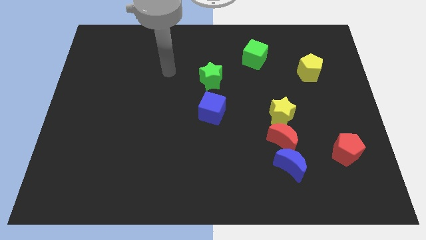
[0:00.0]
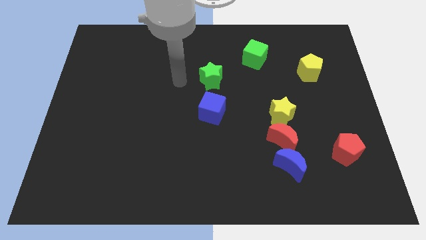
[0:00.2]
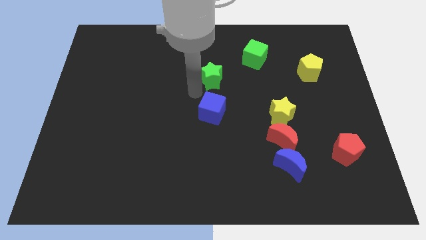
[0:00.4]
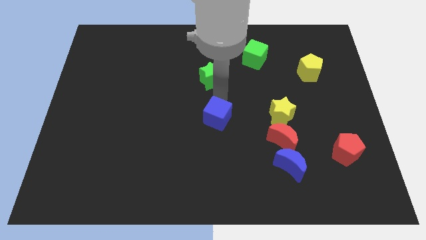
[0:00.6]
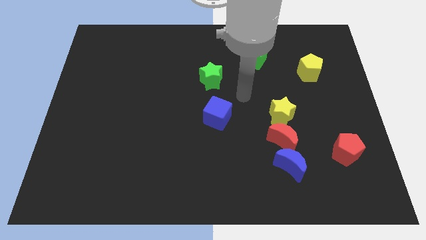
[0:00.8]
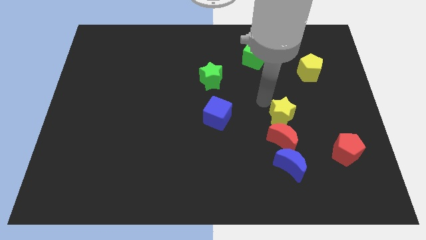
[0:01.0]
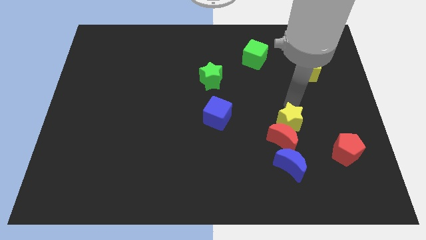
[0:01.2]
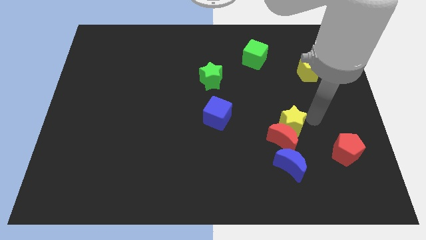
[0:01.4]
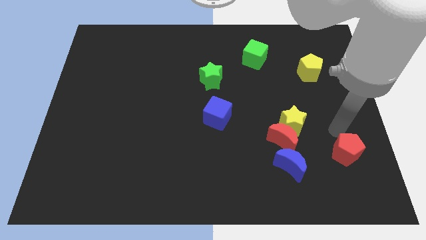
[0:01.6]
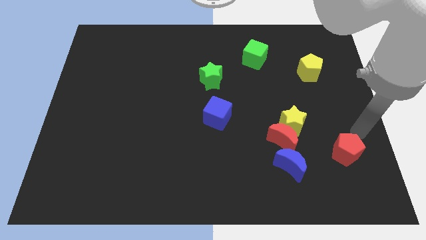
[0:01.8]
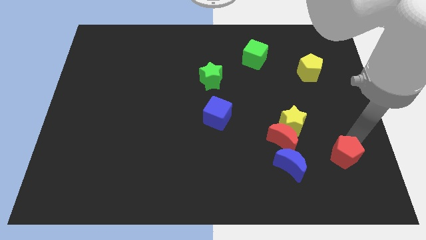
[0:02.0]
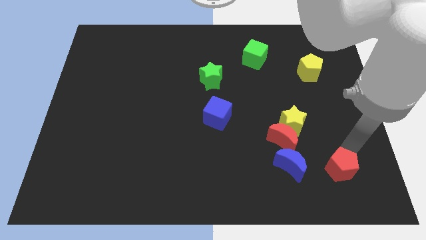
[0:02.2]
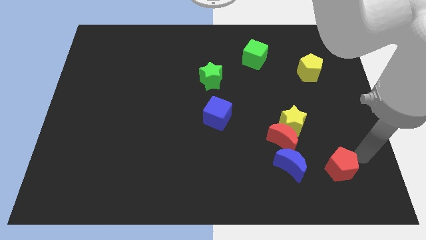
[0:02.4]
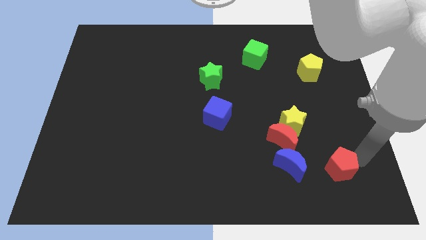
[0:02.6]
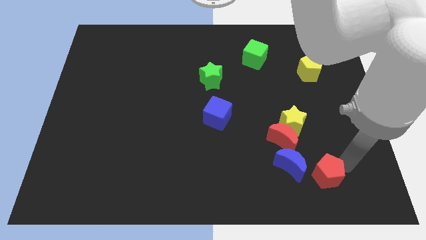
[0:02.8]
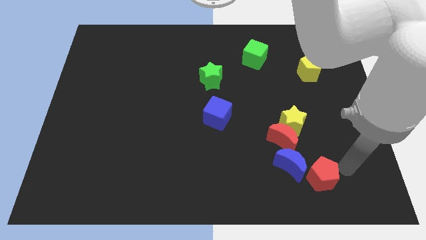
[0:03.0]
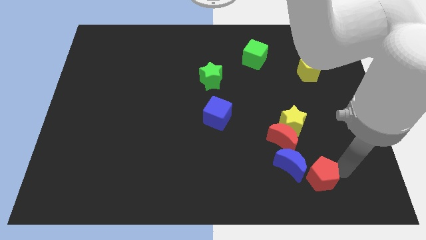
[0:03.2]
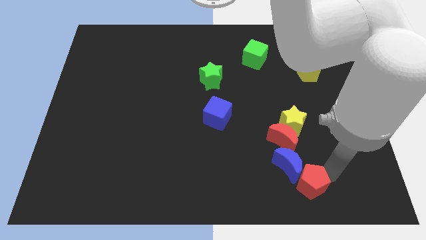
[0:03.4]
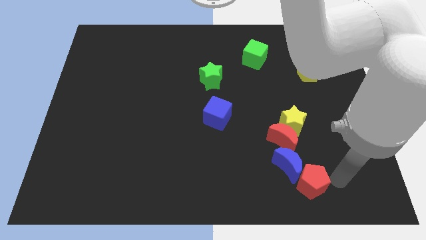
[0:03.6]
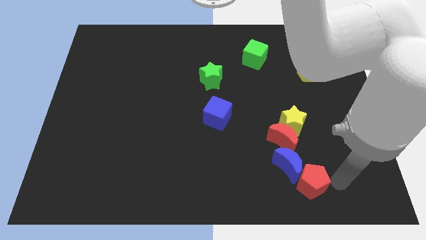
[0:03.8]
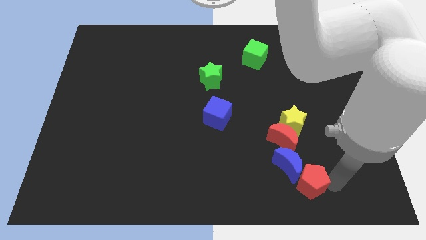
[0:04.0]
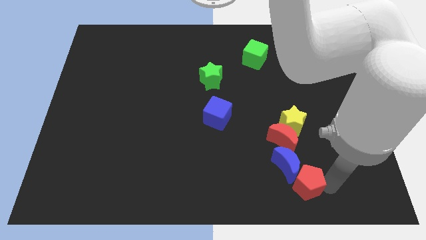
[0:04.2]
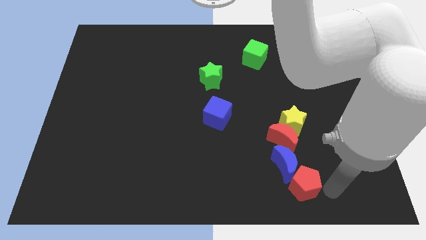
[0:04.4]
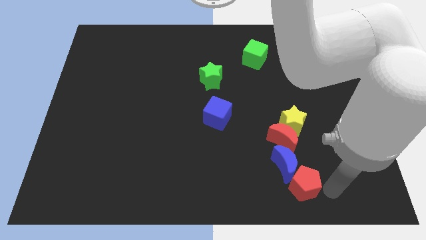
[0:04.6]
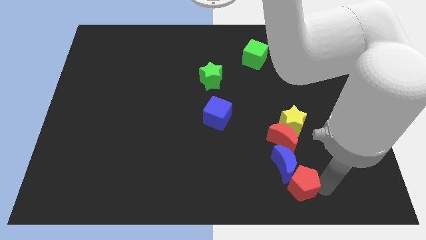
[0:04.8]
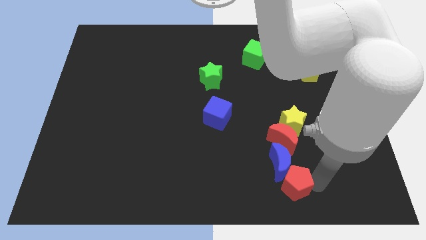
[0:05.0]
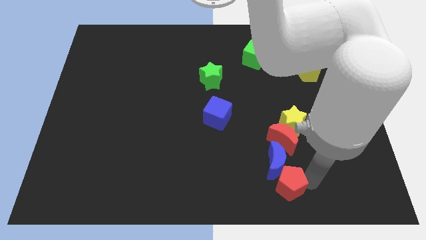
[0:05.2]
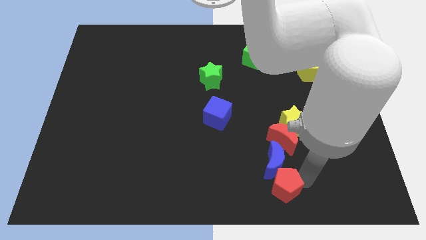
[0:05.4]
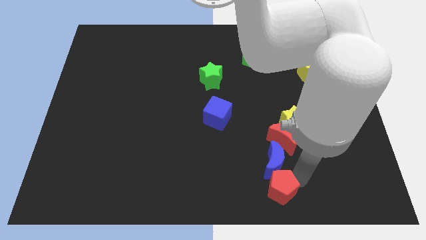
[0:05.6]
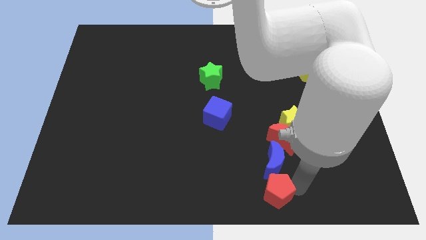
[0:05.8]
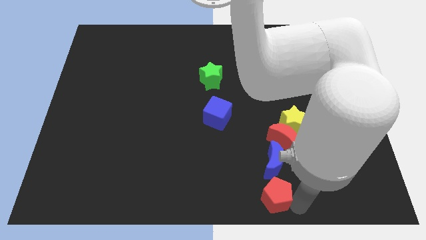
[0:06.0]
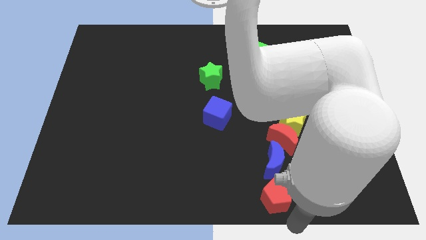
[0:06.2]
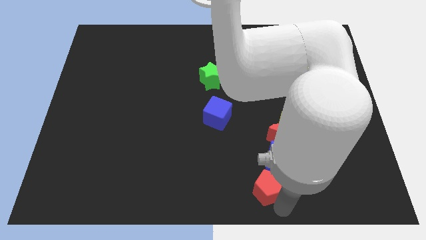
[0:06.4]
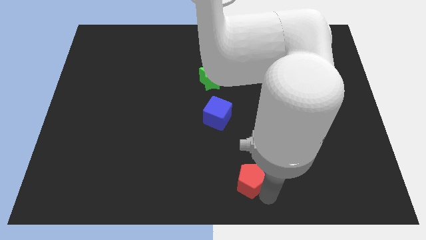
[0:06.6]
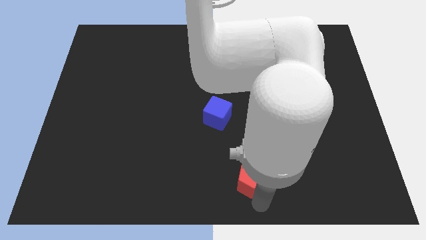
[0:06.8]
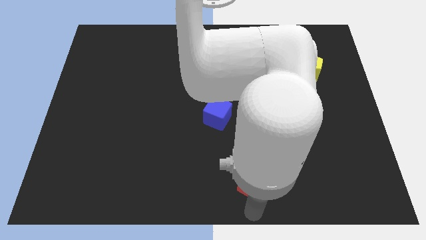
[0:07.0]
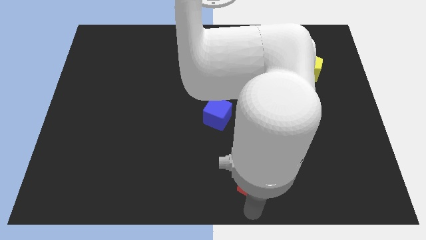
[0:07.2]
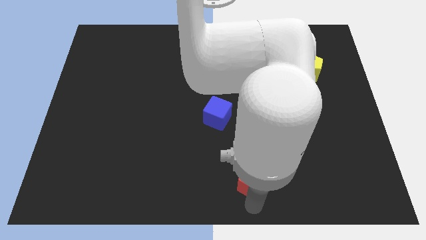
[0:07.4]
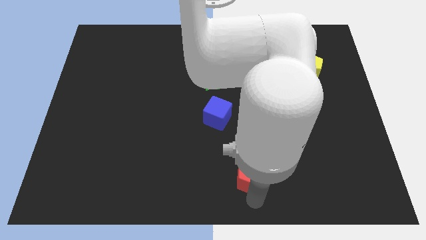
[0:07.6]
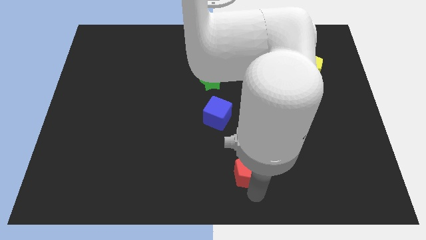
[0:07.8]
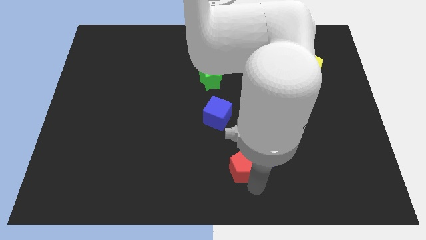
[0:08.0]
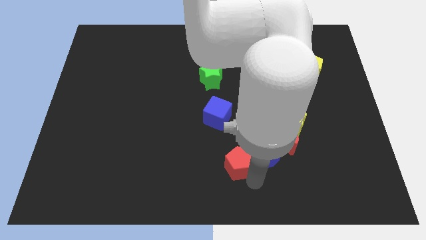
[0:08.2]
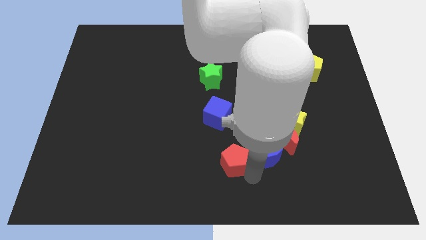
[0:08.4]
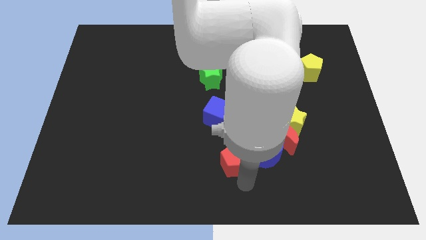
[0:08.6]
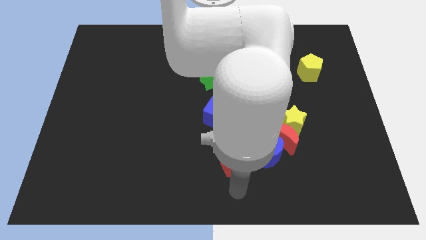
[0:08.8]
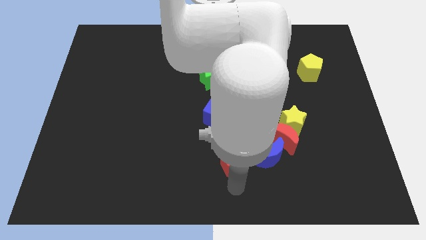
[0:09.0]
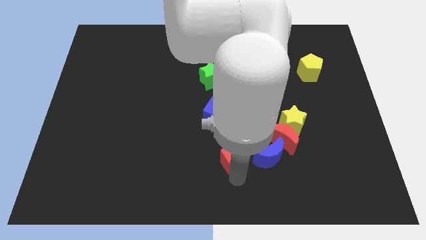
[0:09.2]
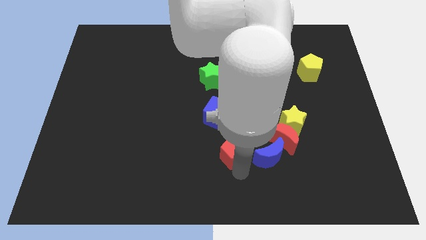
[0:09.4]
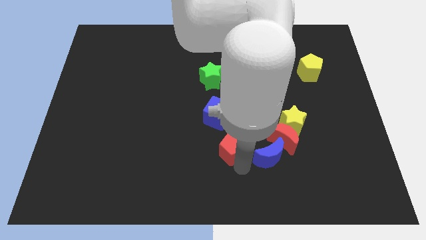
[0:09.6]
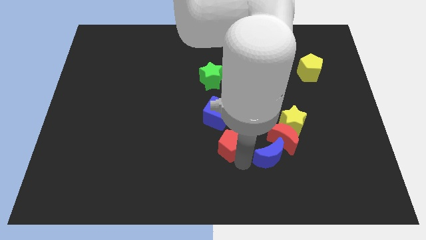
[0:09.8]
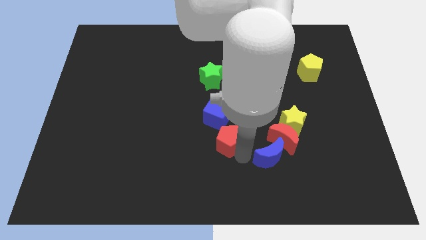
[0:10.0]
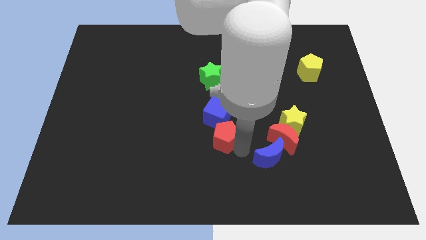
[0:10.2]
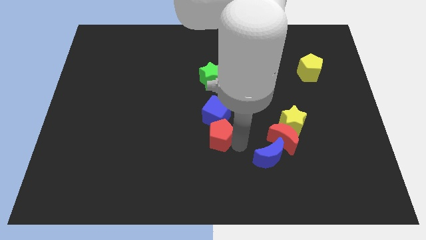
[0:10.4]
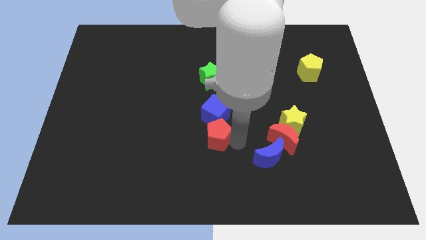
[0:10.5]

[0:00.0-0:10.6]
push the red pentagon to the bottom left side of the blue cube

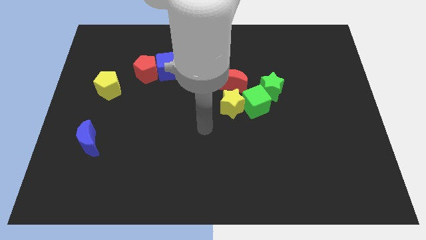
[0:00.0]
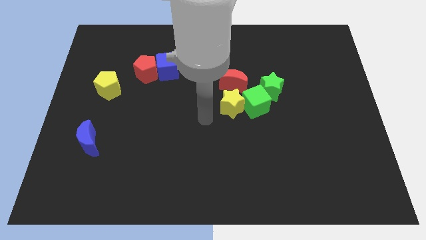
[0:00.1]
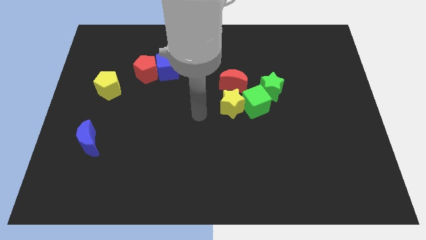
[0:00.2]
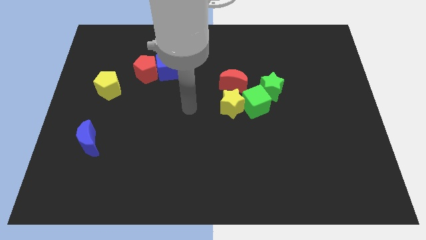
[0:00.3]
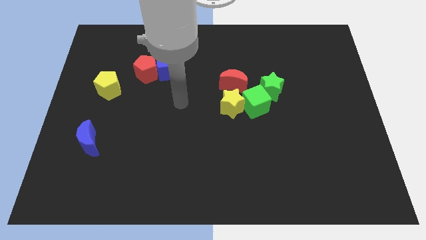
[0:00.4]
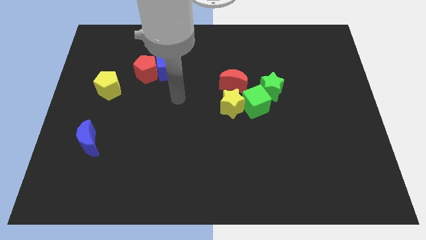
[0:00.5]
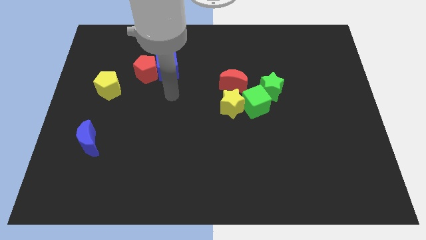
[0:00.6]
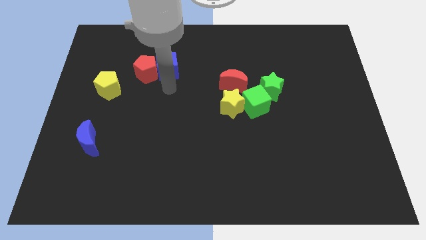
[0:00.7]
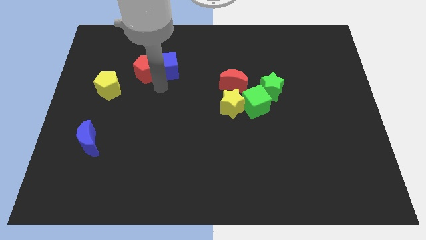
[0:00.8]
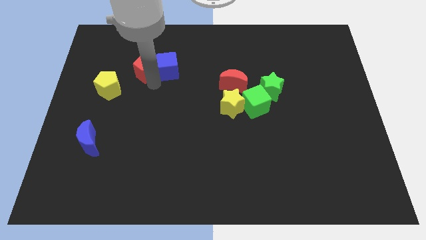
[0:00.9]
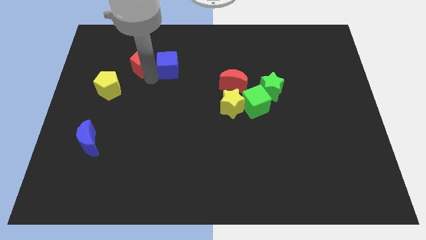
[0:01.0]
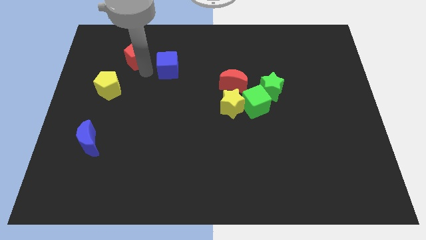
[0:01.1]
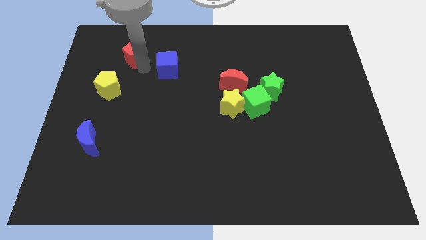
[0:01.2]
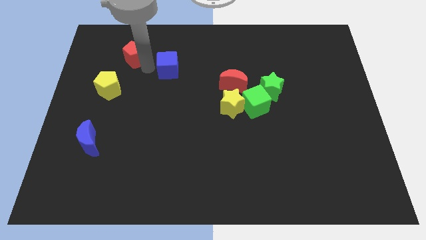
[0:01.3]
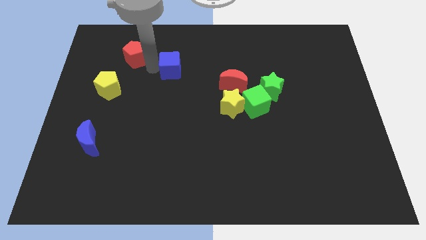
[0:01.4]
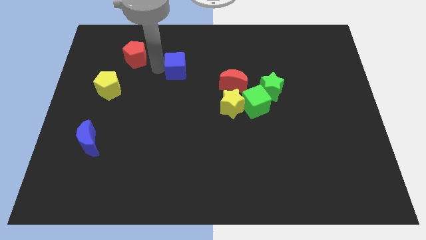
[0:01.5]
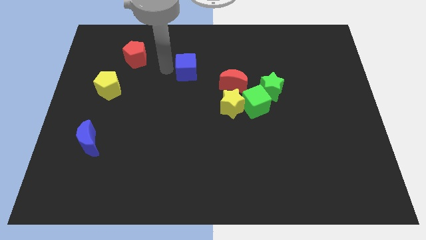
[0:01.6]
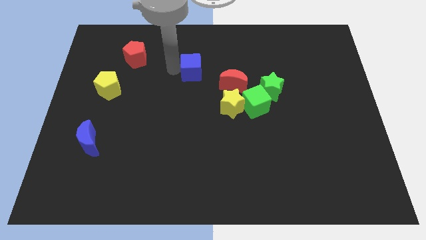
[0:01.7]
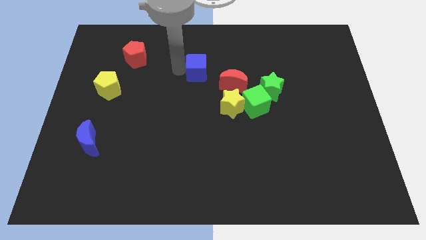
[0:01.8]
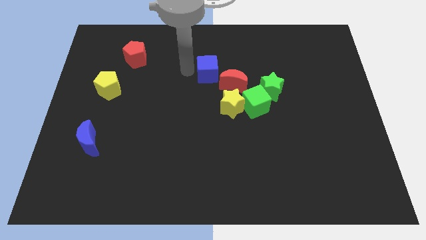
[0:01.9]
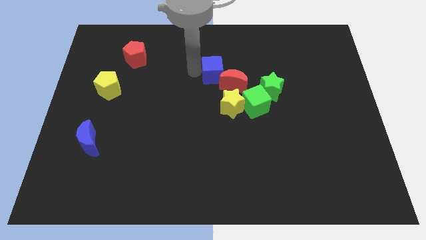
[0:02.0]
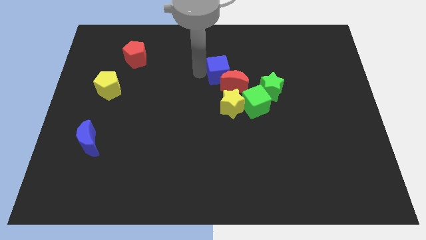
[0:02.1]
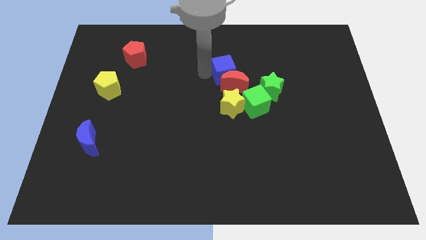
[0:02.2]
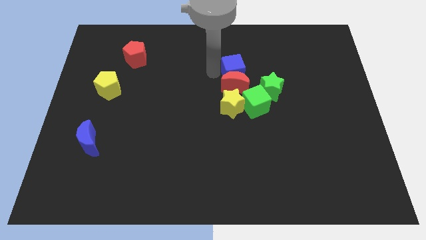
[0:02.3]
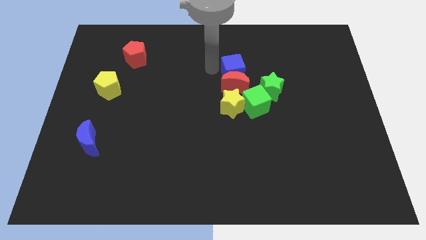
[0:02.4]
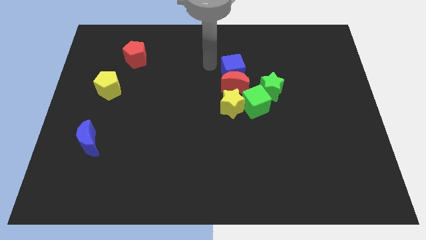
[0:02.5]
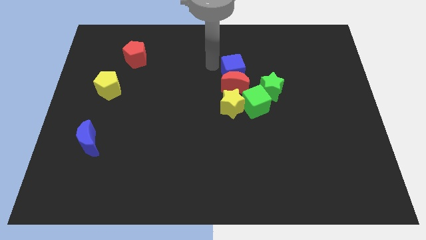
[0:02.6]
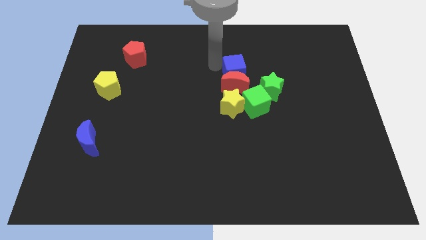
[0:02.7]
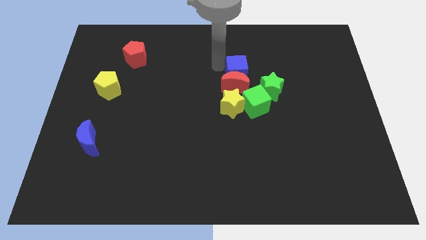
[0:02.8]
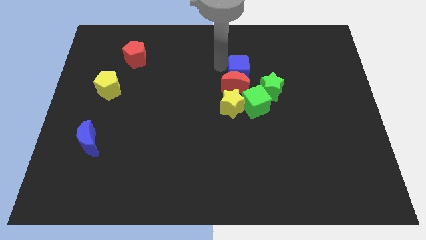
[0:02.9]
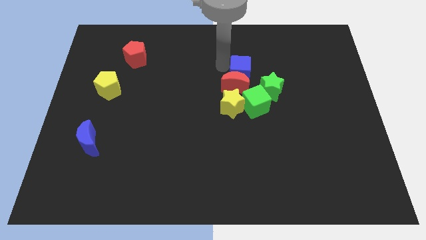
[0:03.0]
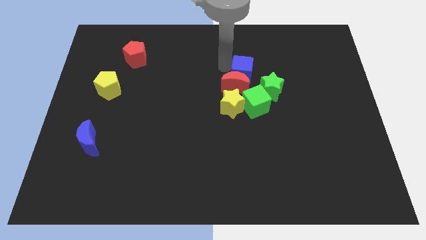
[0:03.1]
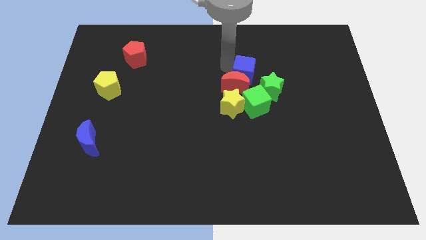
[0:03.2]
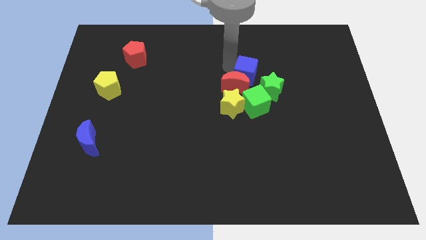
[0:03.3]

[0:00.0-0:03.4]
put the blue cube to the top right side of the yellow star
